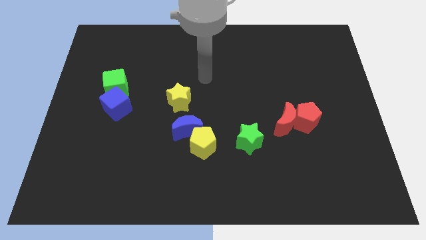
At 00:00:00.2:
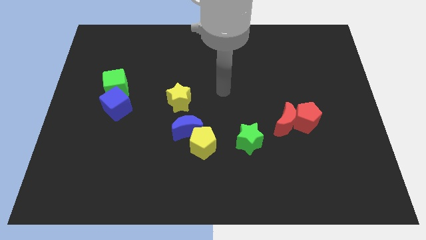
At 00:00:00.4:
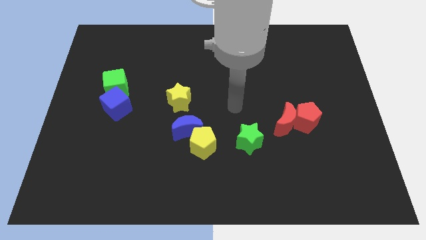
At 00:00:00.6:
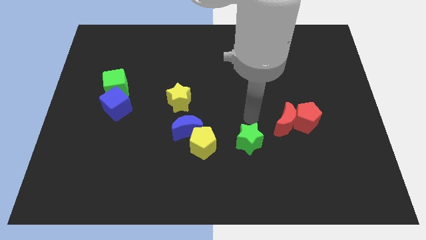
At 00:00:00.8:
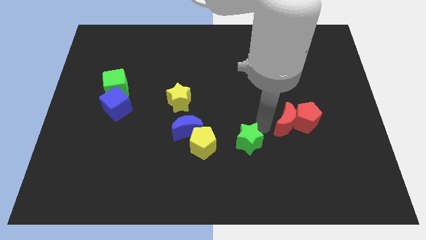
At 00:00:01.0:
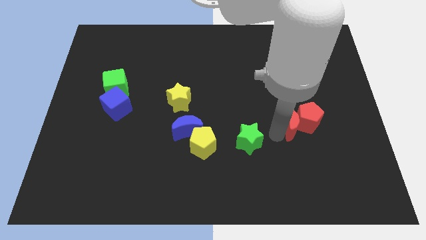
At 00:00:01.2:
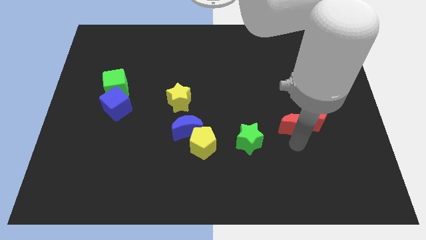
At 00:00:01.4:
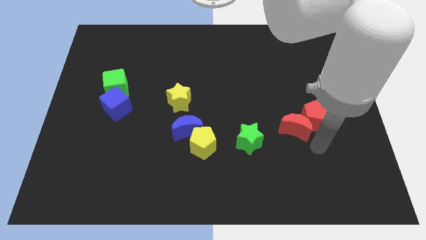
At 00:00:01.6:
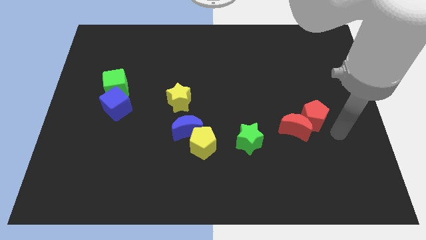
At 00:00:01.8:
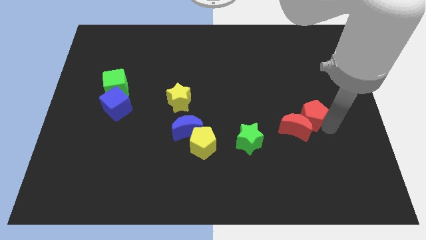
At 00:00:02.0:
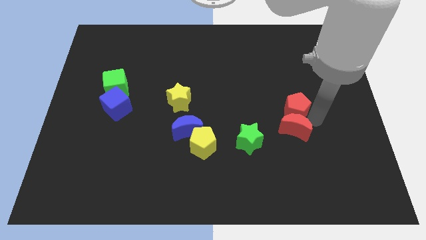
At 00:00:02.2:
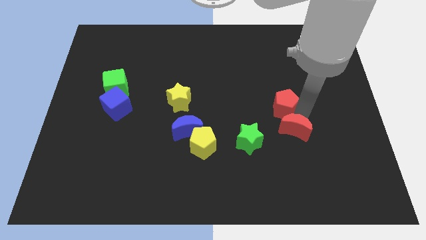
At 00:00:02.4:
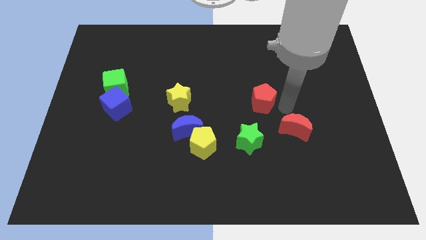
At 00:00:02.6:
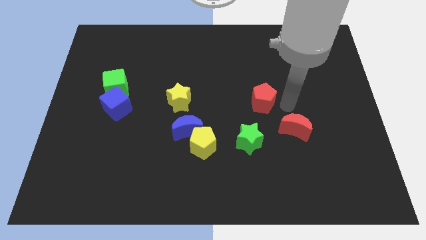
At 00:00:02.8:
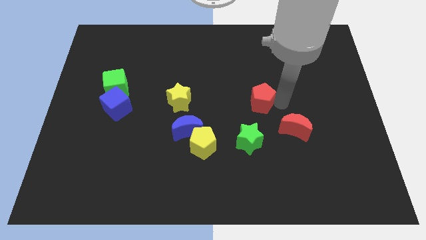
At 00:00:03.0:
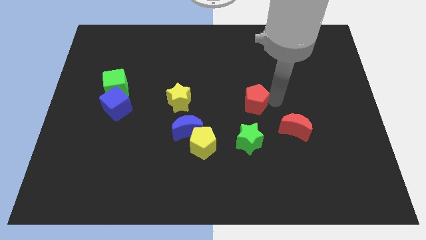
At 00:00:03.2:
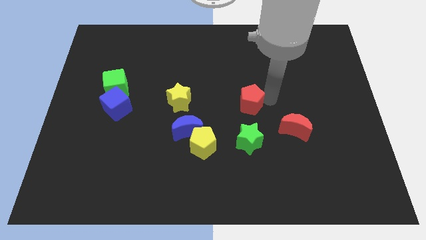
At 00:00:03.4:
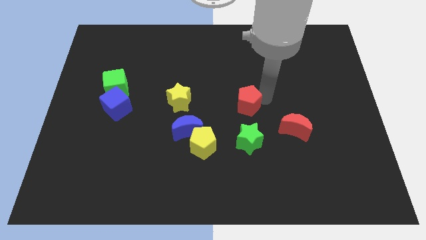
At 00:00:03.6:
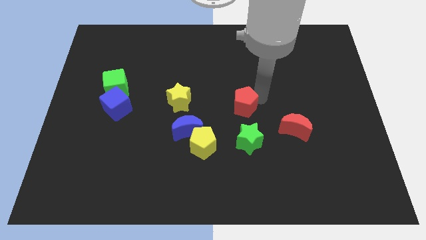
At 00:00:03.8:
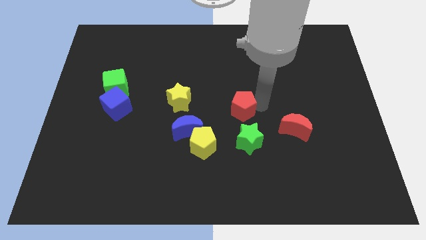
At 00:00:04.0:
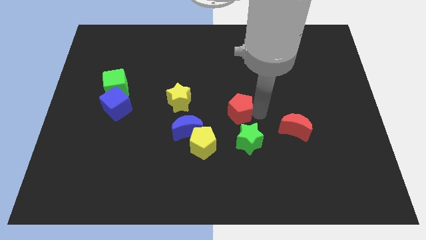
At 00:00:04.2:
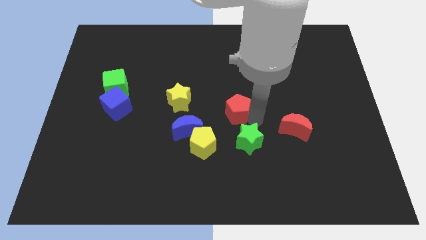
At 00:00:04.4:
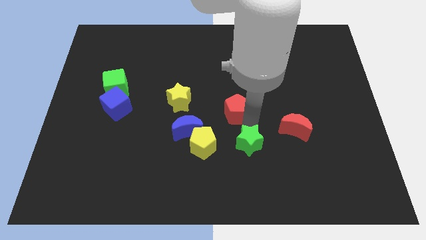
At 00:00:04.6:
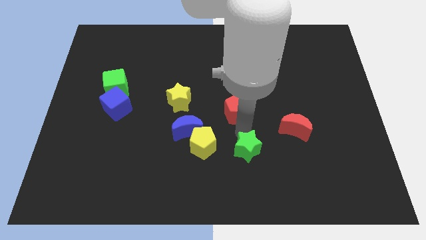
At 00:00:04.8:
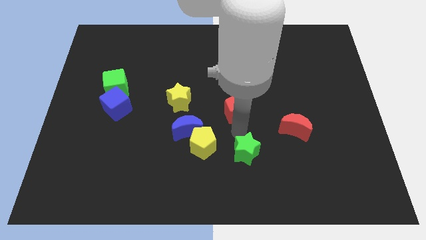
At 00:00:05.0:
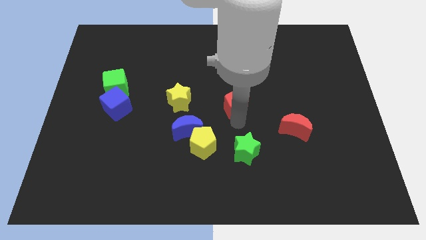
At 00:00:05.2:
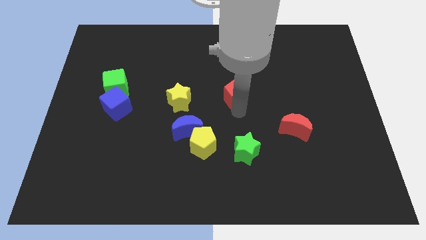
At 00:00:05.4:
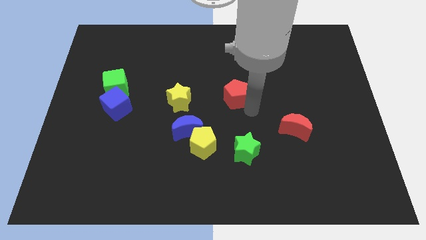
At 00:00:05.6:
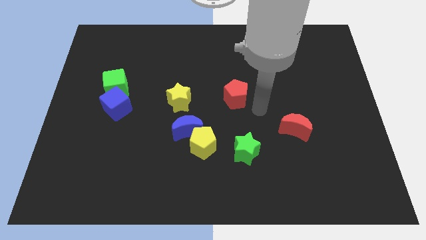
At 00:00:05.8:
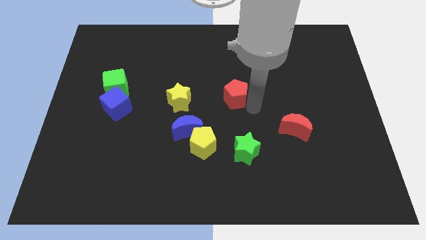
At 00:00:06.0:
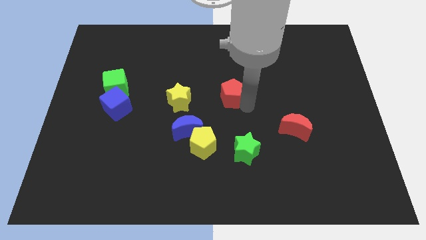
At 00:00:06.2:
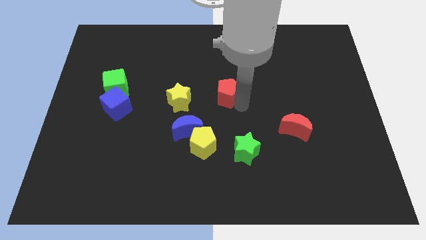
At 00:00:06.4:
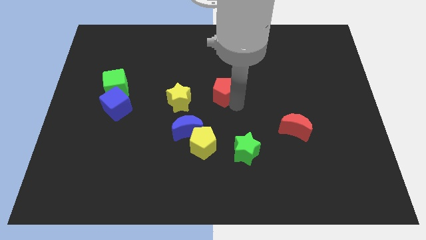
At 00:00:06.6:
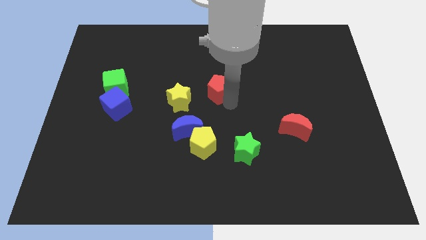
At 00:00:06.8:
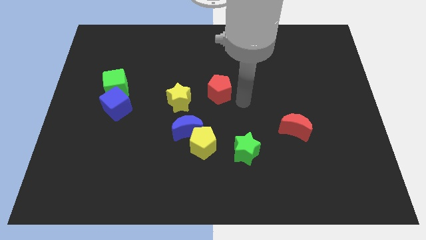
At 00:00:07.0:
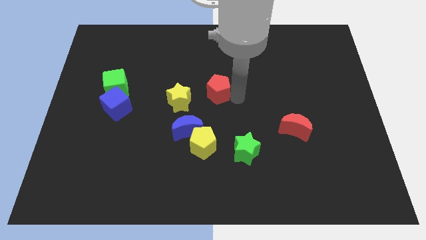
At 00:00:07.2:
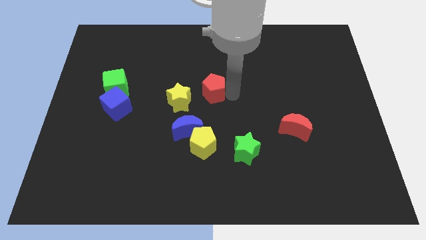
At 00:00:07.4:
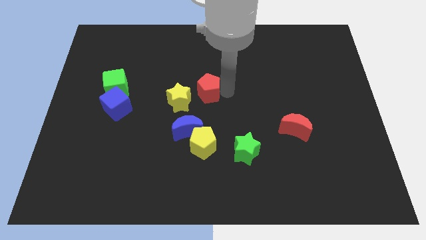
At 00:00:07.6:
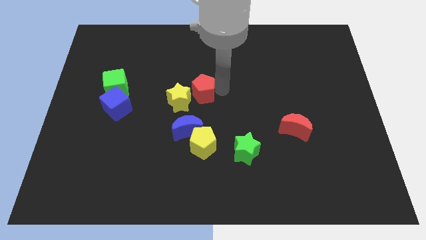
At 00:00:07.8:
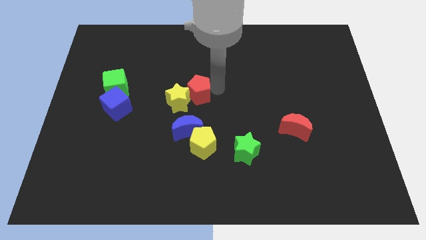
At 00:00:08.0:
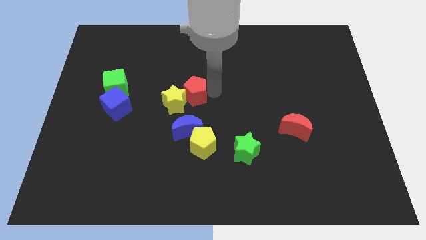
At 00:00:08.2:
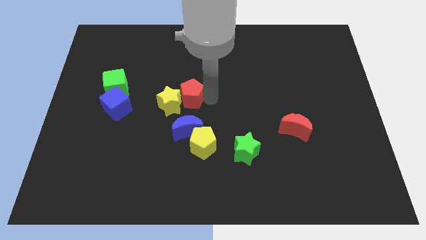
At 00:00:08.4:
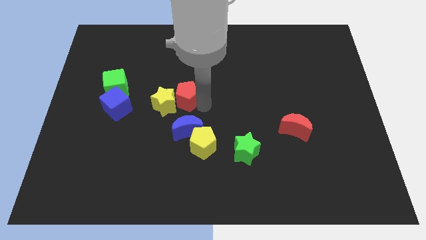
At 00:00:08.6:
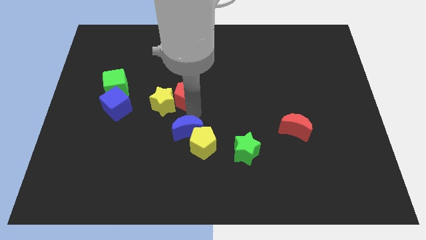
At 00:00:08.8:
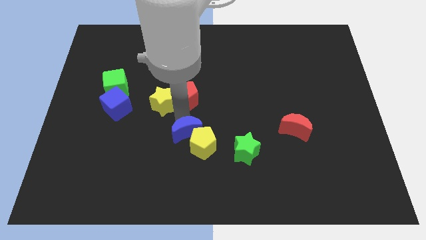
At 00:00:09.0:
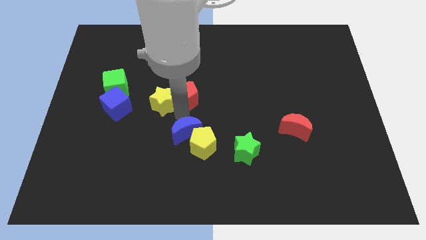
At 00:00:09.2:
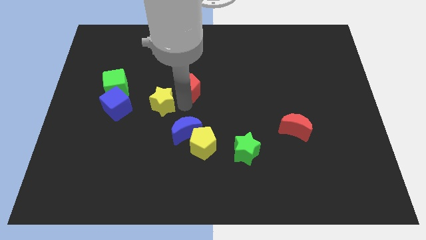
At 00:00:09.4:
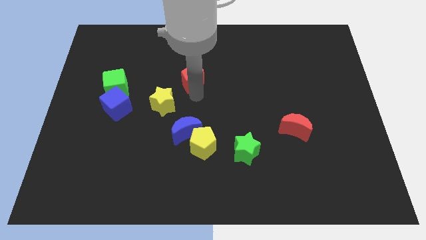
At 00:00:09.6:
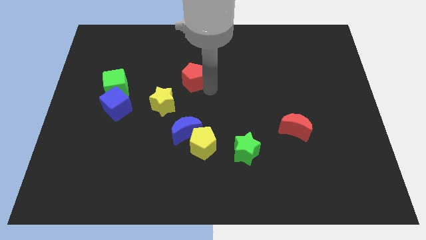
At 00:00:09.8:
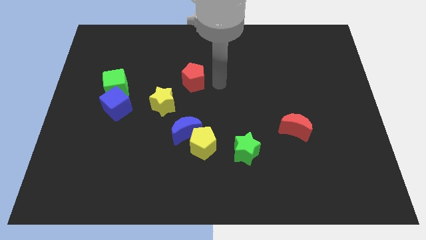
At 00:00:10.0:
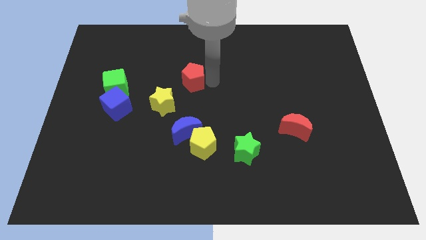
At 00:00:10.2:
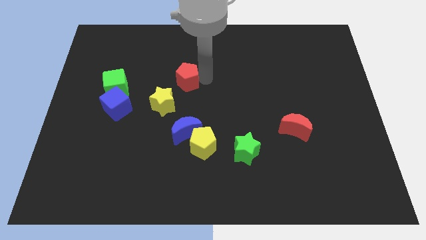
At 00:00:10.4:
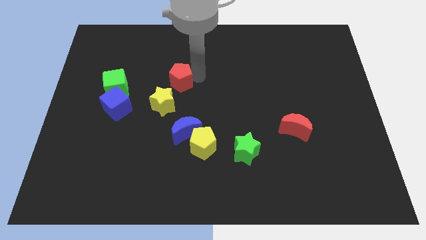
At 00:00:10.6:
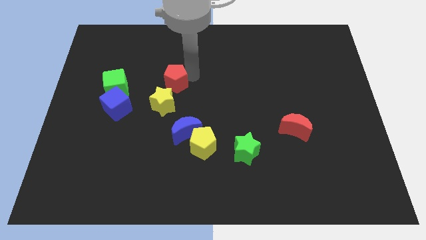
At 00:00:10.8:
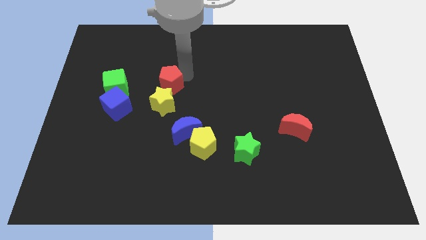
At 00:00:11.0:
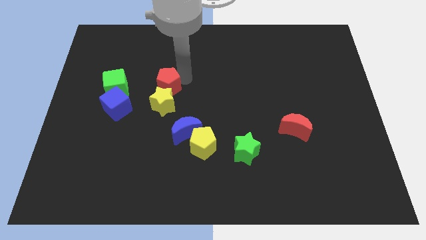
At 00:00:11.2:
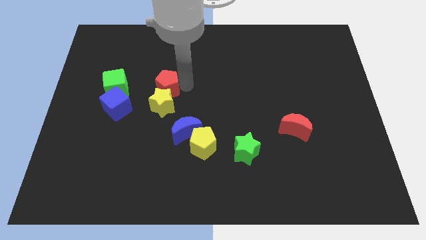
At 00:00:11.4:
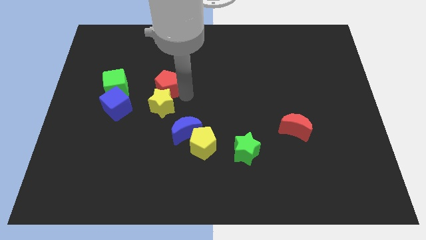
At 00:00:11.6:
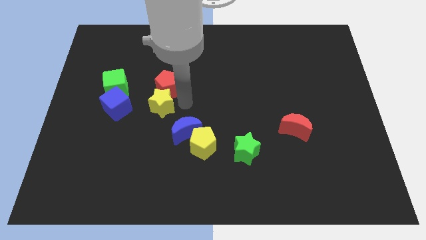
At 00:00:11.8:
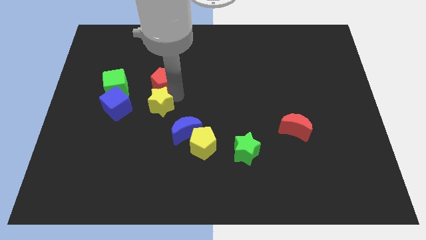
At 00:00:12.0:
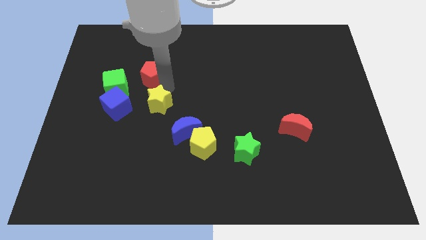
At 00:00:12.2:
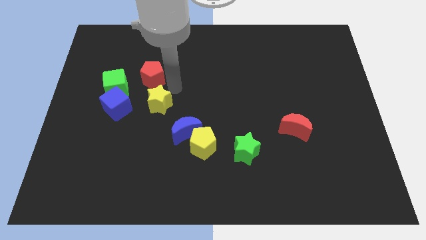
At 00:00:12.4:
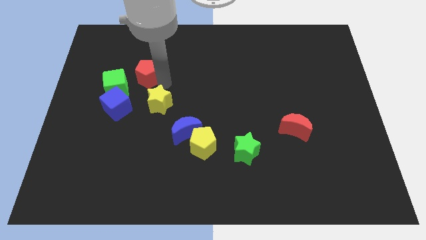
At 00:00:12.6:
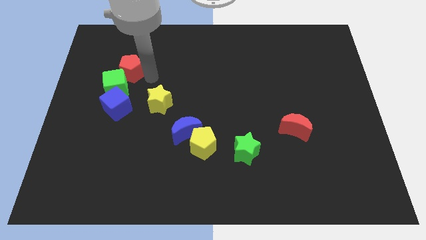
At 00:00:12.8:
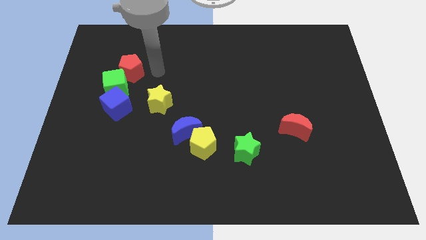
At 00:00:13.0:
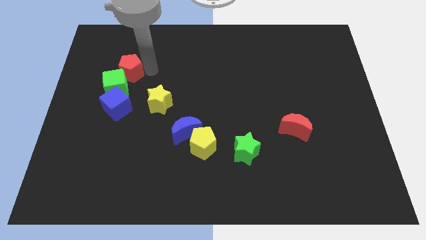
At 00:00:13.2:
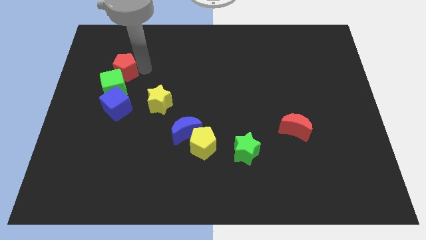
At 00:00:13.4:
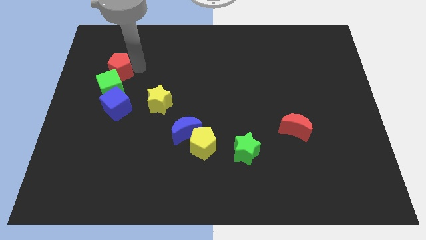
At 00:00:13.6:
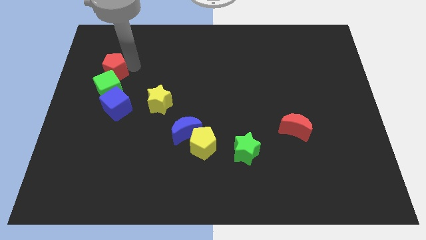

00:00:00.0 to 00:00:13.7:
push the red pentagon to the top left side of the green cube

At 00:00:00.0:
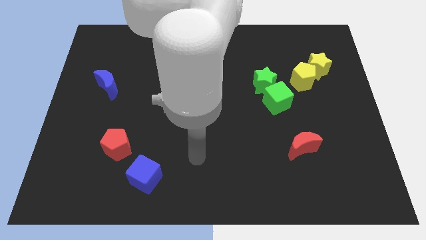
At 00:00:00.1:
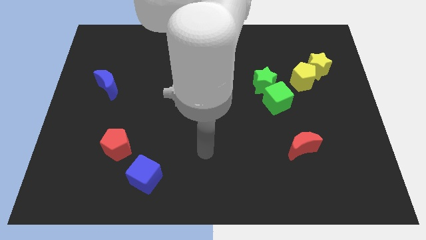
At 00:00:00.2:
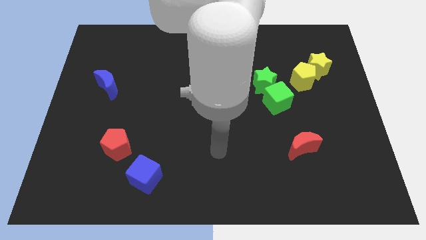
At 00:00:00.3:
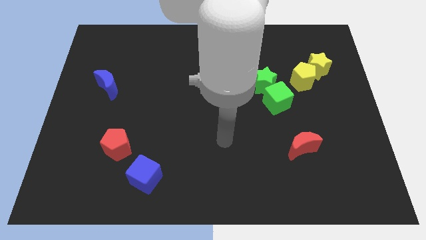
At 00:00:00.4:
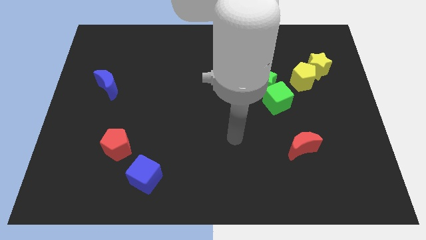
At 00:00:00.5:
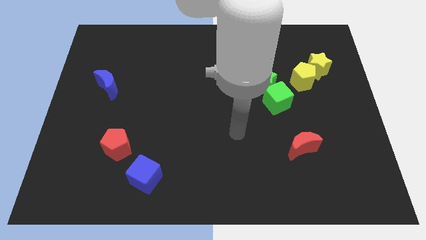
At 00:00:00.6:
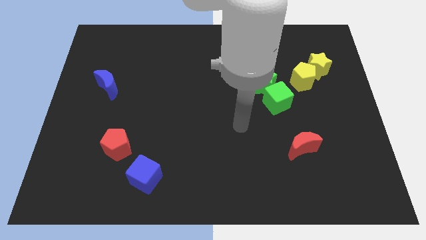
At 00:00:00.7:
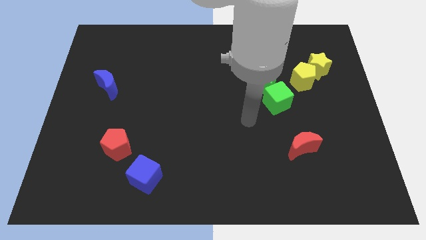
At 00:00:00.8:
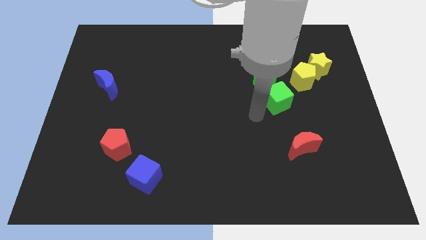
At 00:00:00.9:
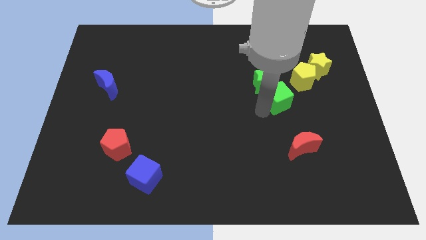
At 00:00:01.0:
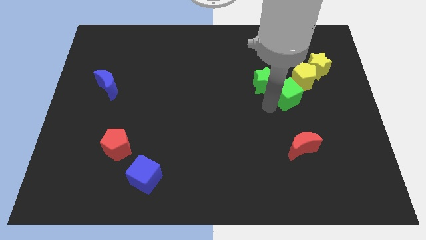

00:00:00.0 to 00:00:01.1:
put the green cube diagonally down and to the left of the yellow star
